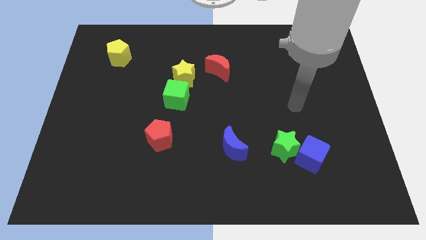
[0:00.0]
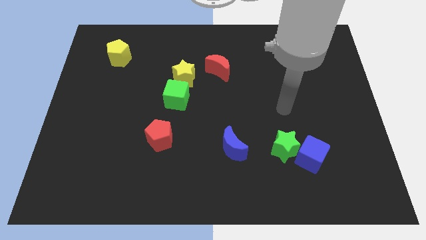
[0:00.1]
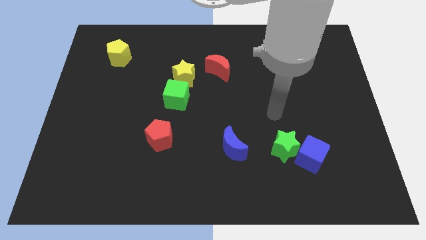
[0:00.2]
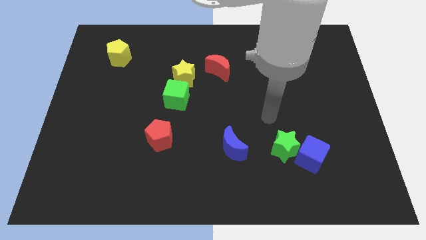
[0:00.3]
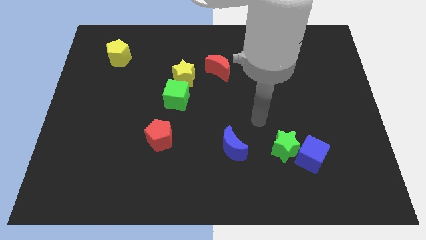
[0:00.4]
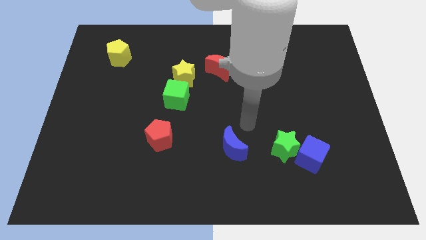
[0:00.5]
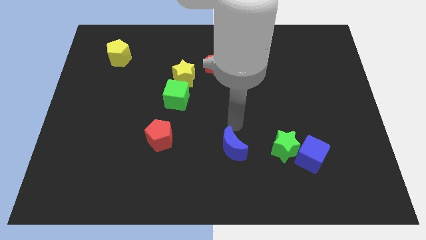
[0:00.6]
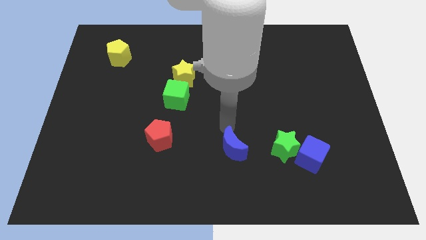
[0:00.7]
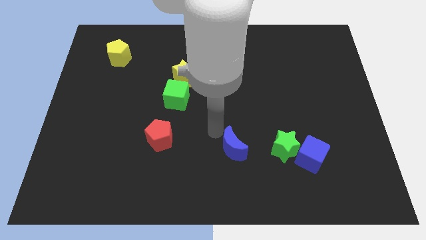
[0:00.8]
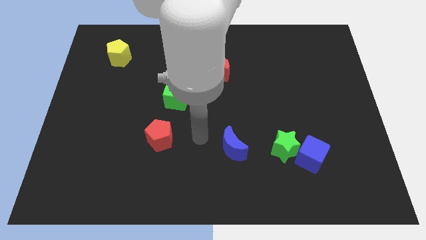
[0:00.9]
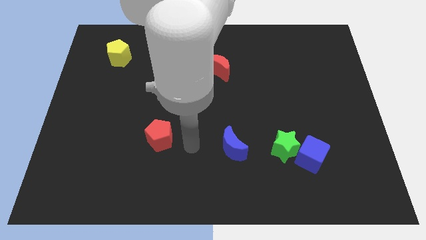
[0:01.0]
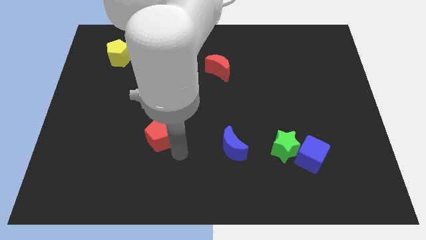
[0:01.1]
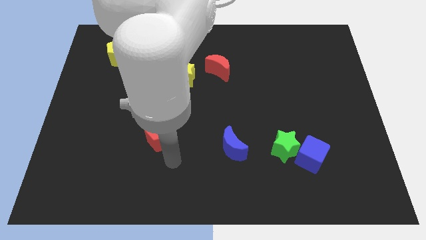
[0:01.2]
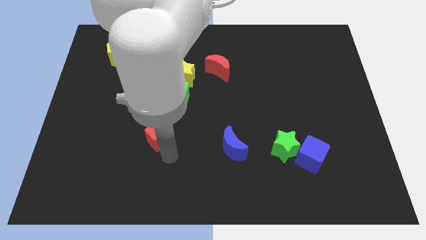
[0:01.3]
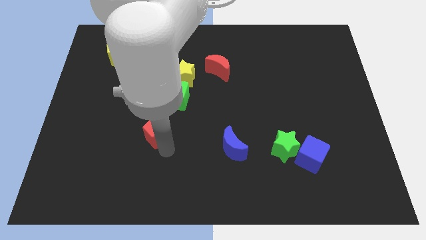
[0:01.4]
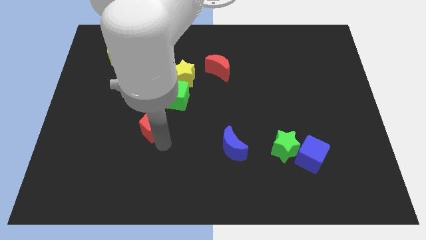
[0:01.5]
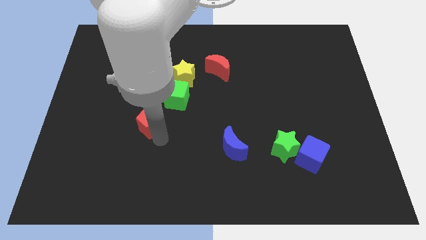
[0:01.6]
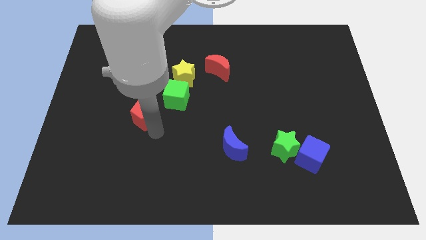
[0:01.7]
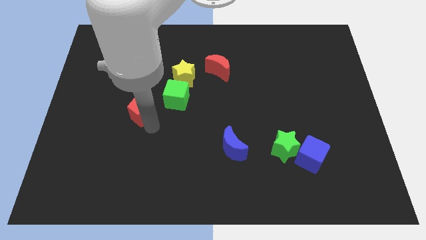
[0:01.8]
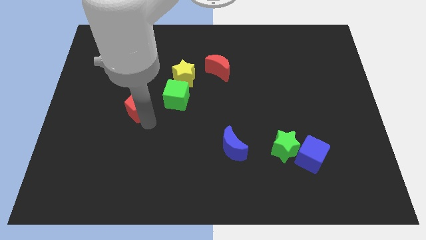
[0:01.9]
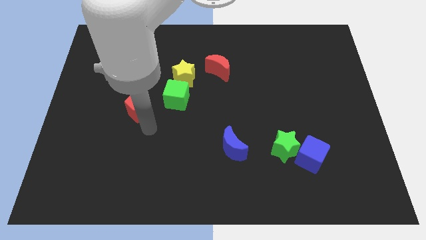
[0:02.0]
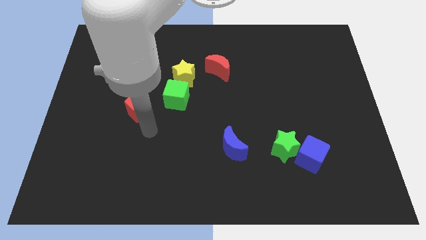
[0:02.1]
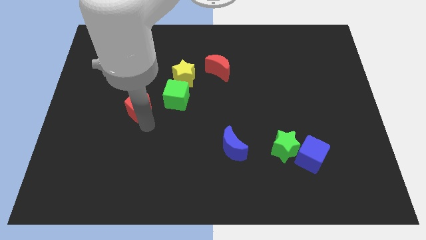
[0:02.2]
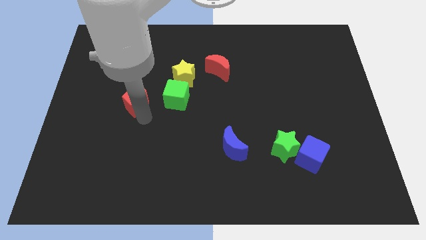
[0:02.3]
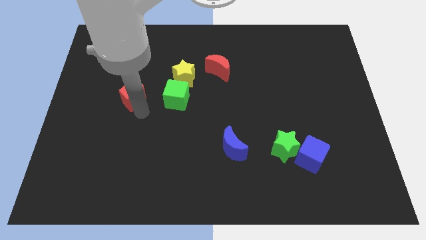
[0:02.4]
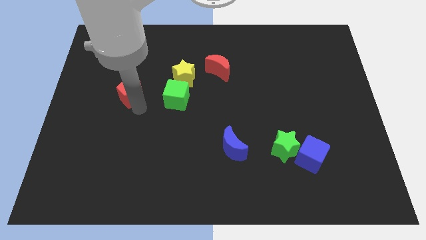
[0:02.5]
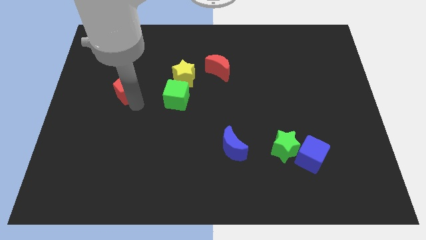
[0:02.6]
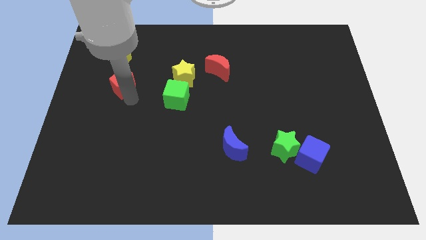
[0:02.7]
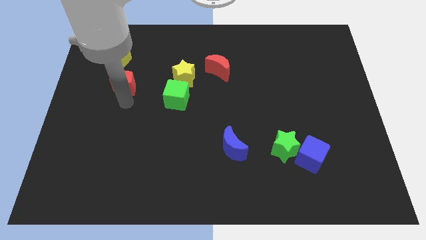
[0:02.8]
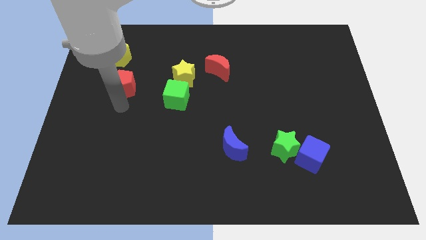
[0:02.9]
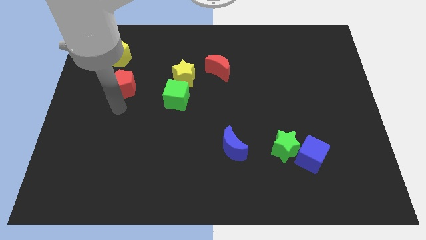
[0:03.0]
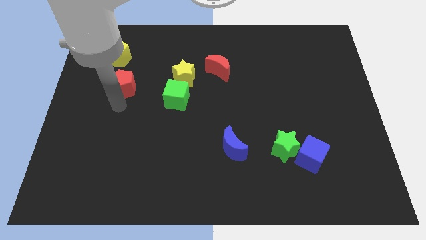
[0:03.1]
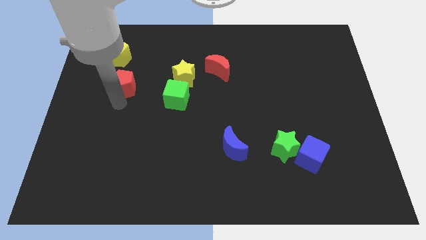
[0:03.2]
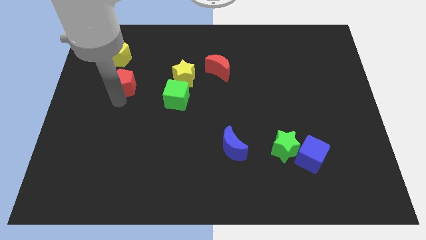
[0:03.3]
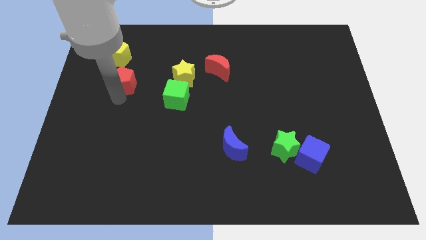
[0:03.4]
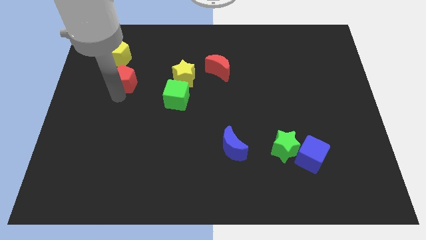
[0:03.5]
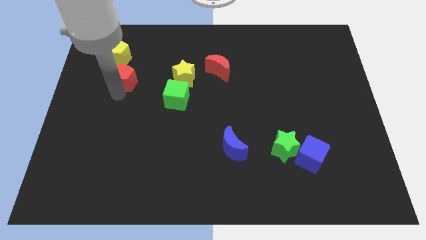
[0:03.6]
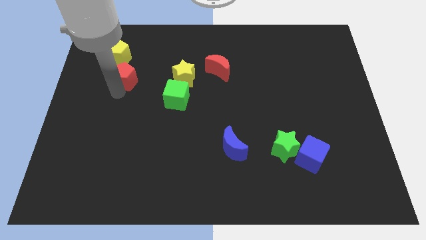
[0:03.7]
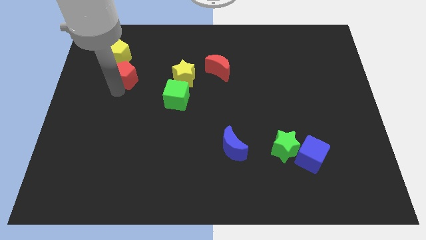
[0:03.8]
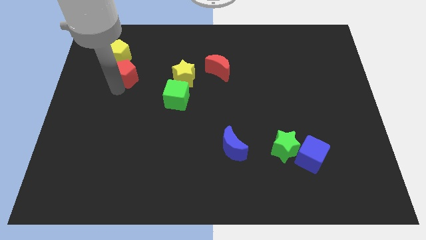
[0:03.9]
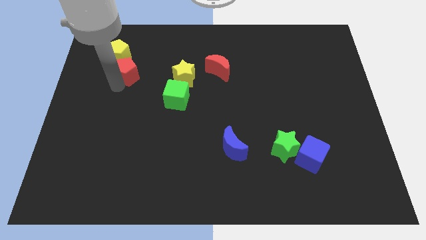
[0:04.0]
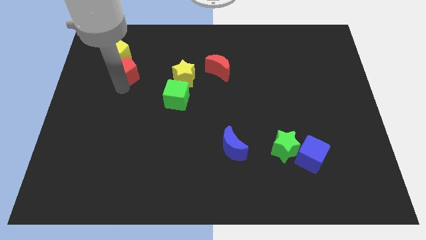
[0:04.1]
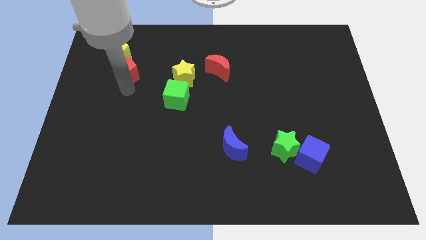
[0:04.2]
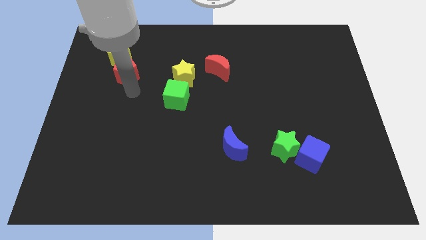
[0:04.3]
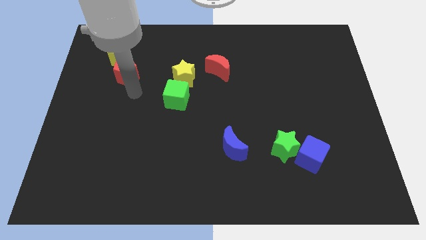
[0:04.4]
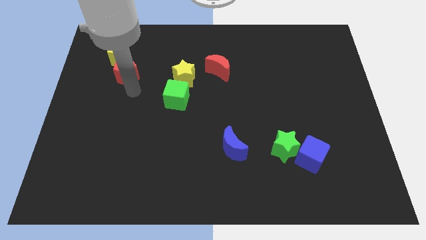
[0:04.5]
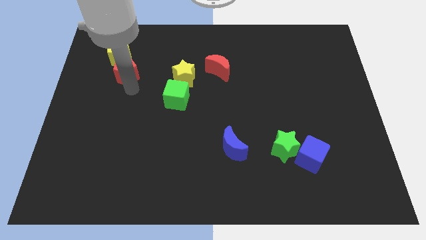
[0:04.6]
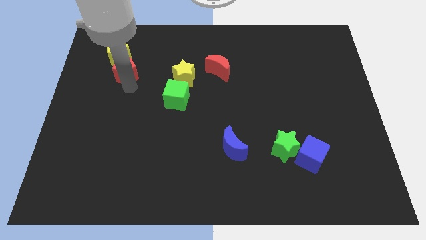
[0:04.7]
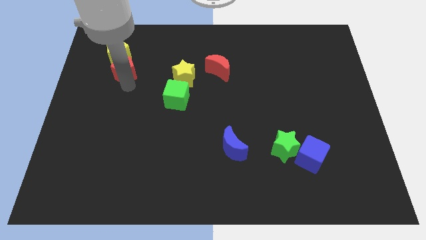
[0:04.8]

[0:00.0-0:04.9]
move the red pentagon next to the yellow pentagon

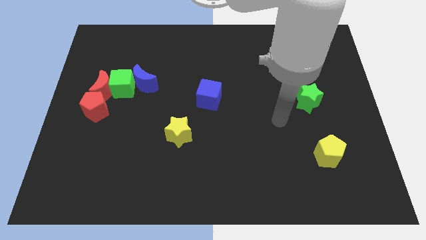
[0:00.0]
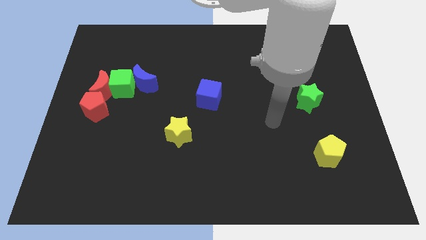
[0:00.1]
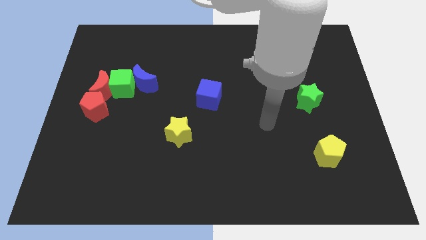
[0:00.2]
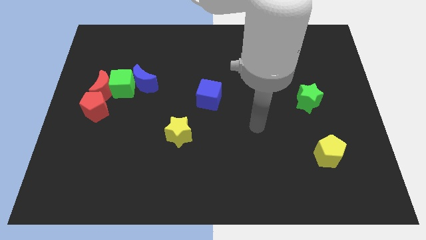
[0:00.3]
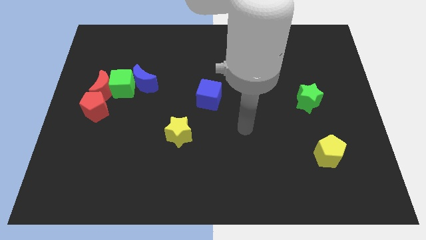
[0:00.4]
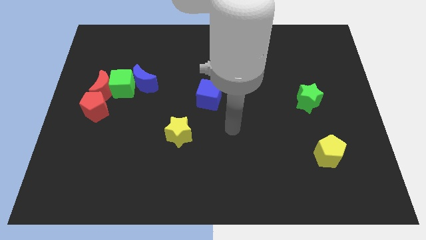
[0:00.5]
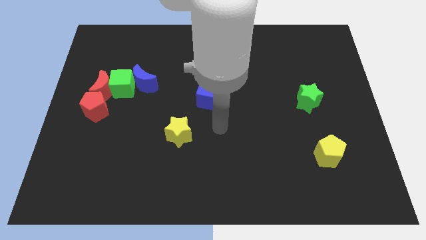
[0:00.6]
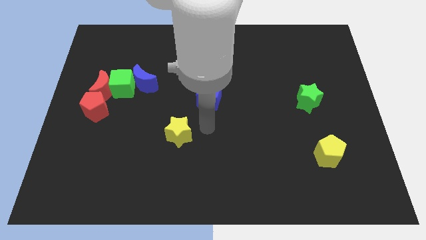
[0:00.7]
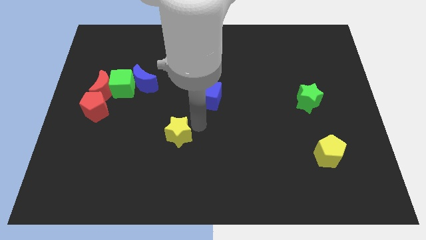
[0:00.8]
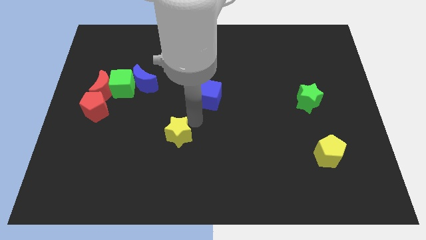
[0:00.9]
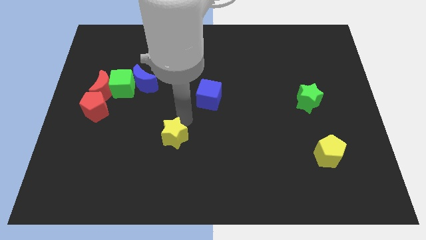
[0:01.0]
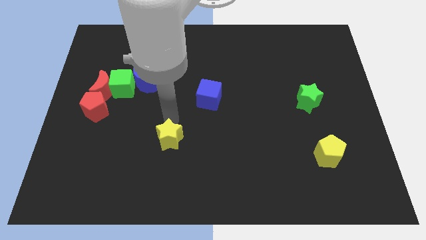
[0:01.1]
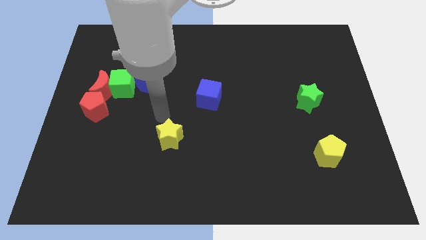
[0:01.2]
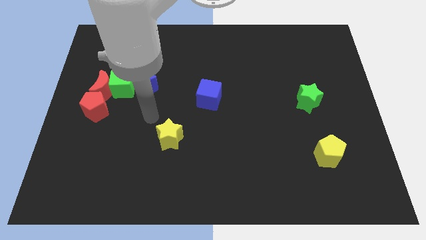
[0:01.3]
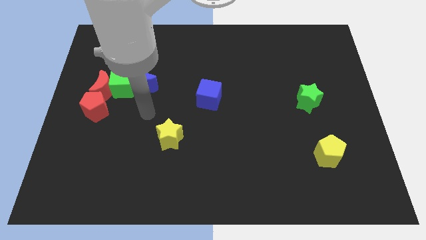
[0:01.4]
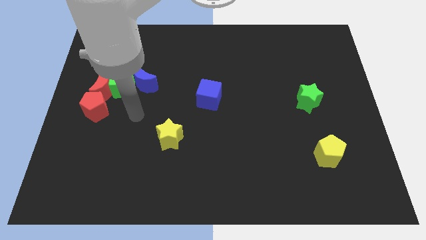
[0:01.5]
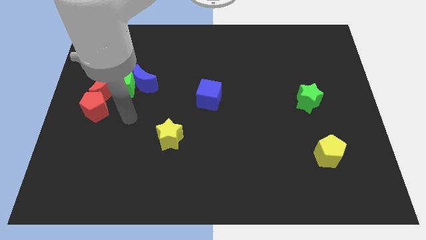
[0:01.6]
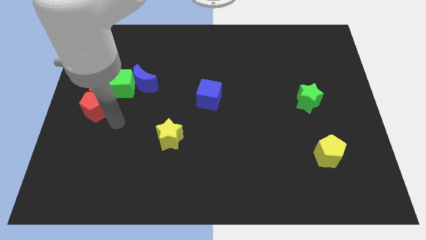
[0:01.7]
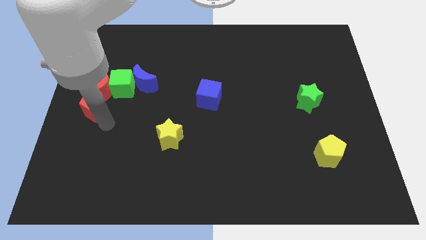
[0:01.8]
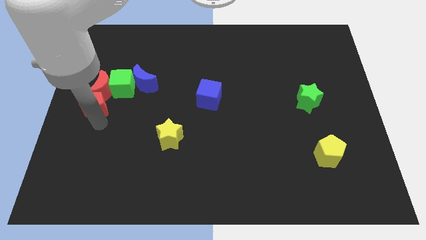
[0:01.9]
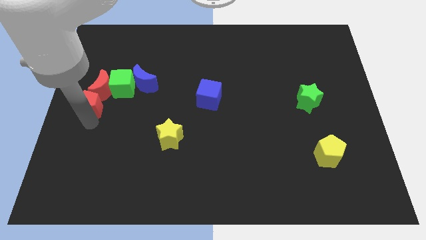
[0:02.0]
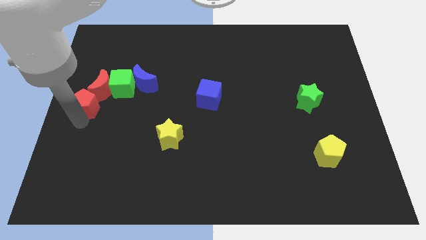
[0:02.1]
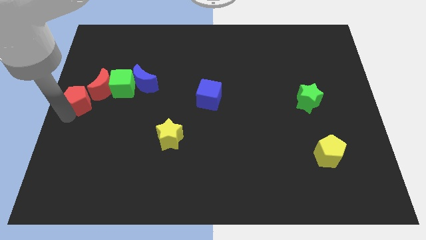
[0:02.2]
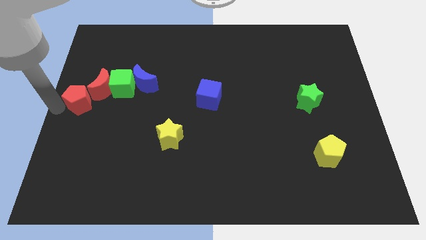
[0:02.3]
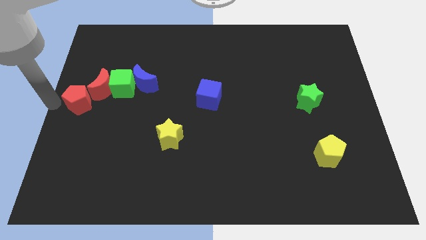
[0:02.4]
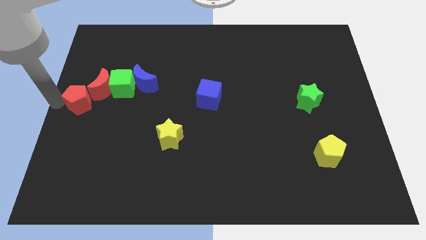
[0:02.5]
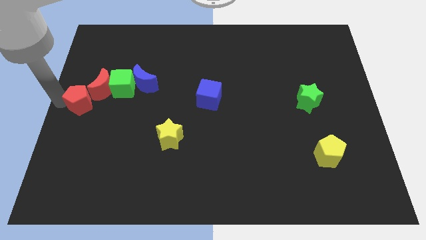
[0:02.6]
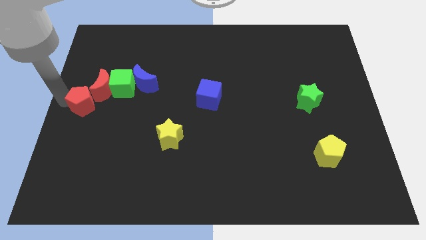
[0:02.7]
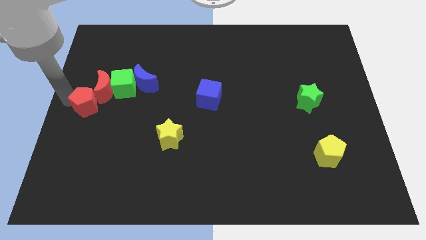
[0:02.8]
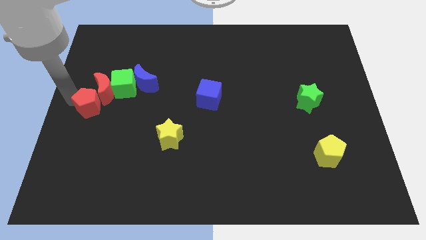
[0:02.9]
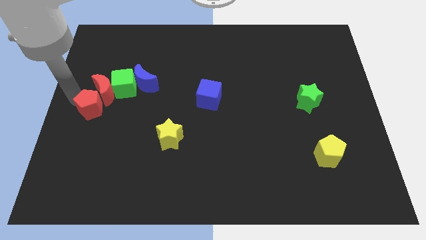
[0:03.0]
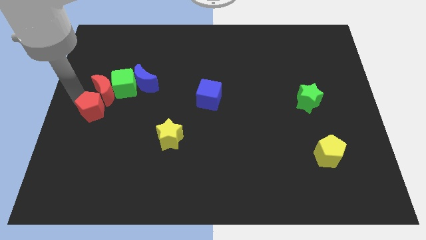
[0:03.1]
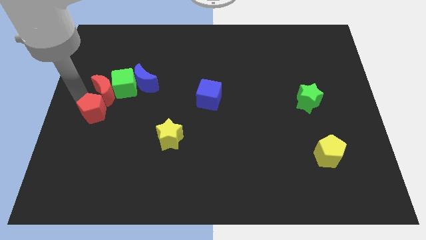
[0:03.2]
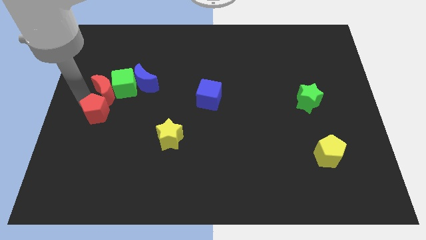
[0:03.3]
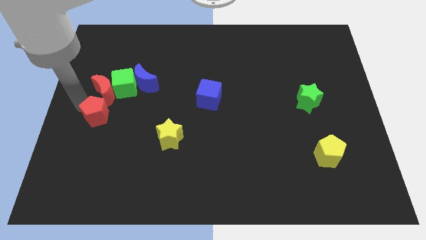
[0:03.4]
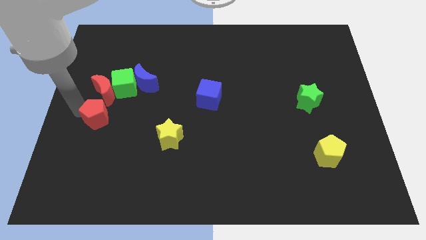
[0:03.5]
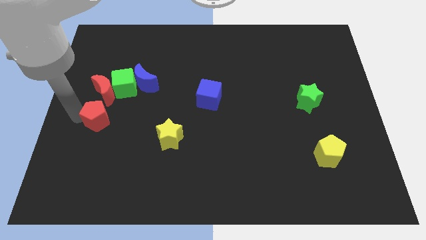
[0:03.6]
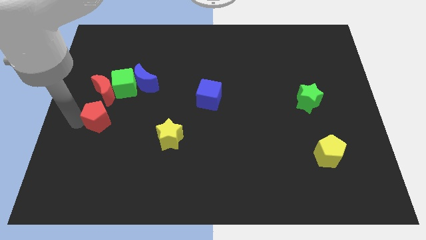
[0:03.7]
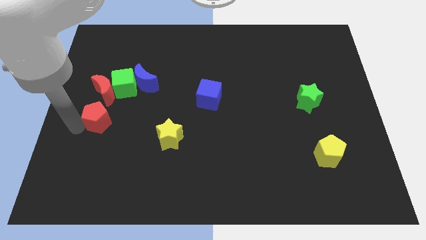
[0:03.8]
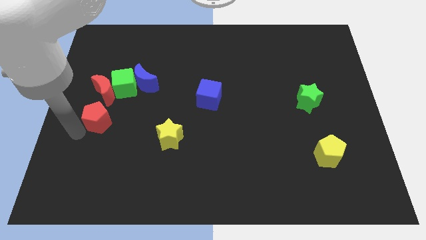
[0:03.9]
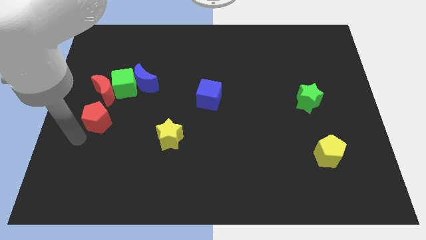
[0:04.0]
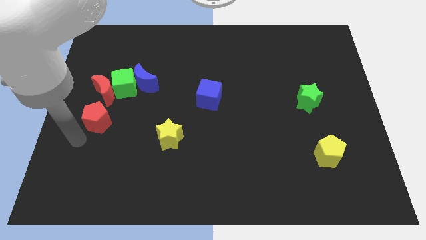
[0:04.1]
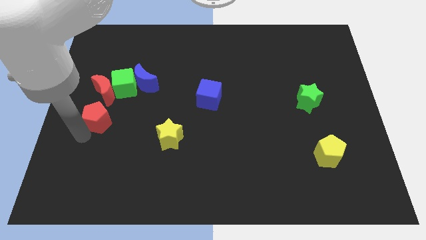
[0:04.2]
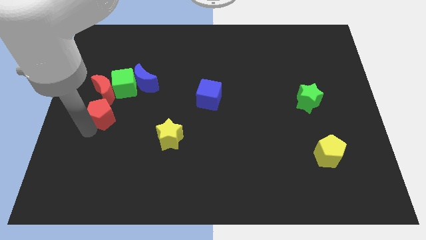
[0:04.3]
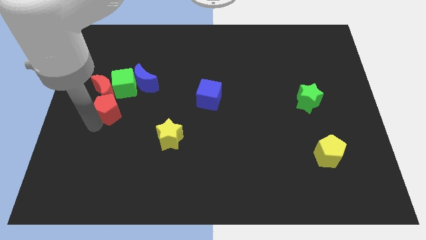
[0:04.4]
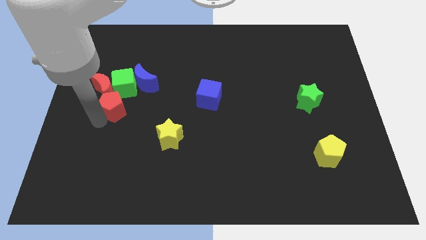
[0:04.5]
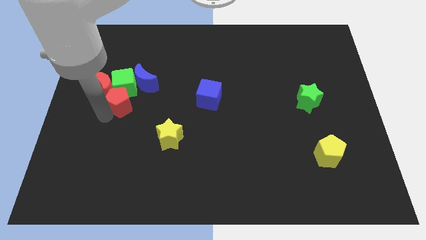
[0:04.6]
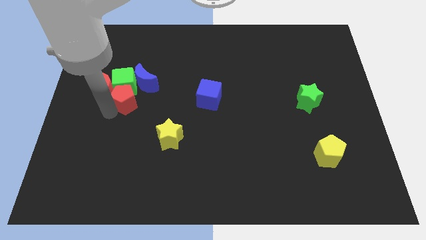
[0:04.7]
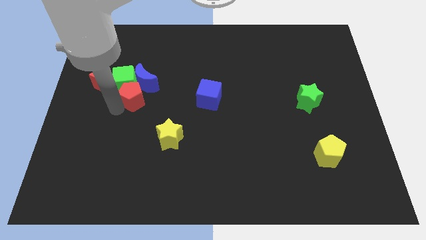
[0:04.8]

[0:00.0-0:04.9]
push the red pentagon next to the blue moon
